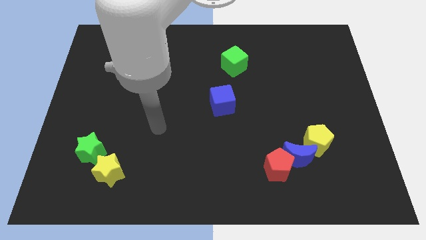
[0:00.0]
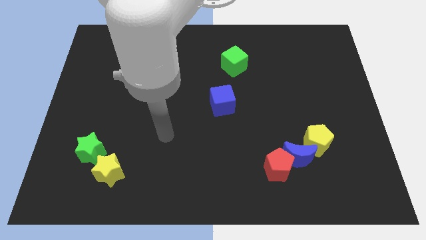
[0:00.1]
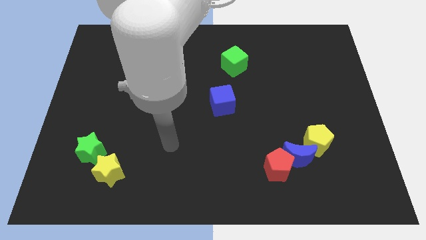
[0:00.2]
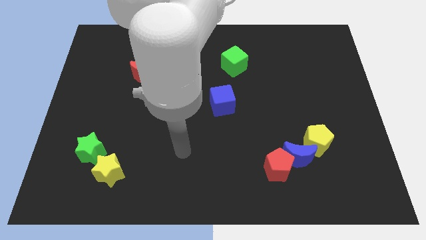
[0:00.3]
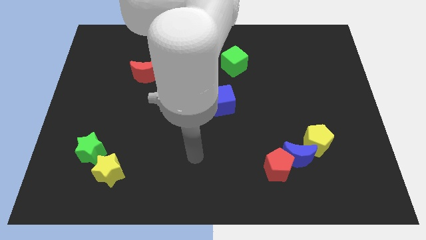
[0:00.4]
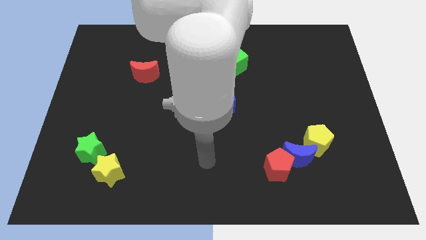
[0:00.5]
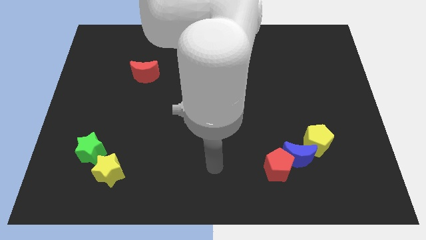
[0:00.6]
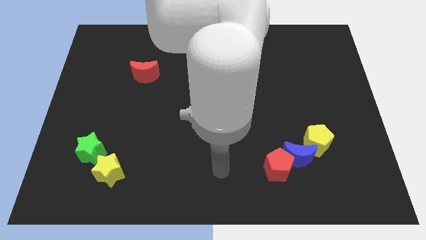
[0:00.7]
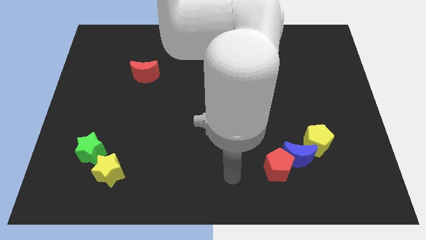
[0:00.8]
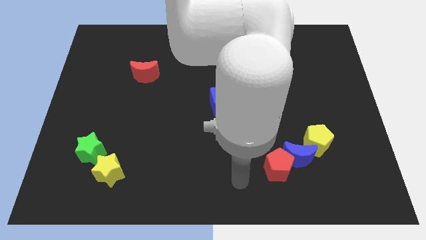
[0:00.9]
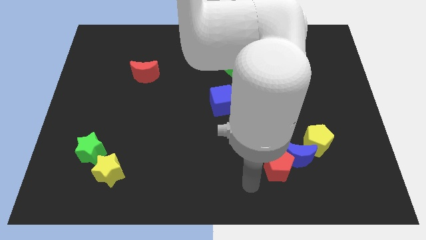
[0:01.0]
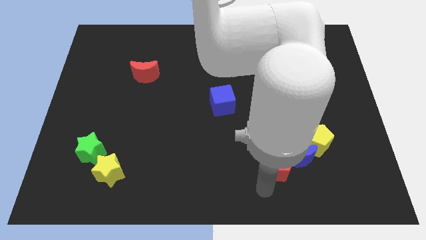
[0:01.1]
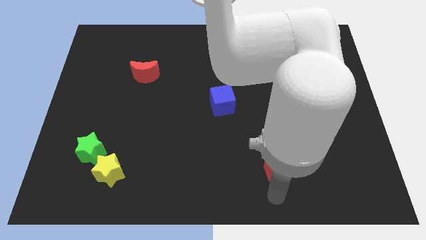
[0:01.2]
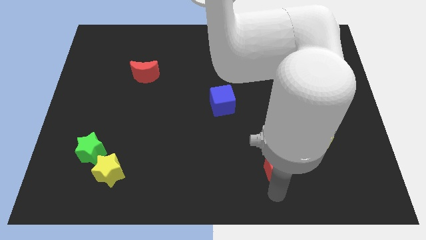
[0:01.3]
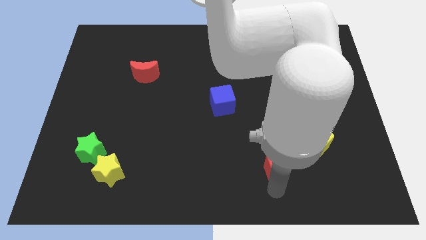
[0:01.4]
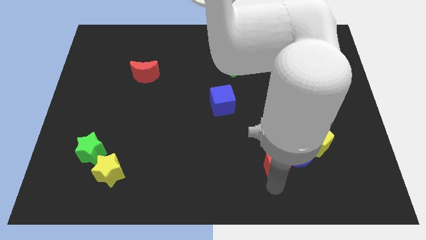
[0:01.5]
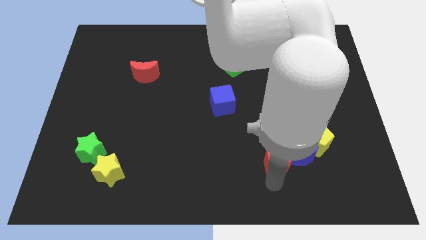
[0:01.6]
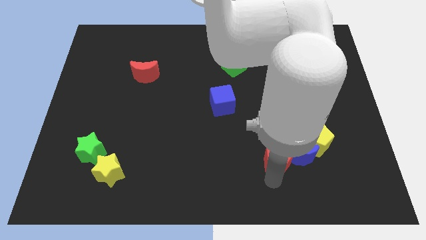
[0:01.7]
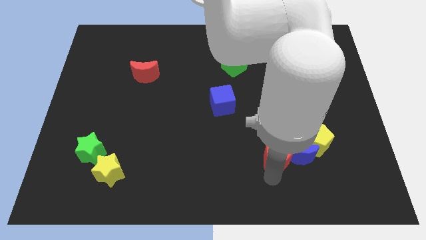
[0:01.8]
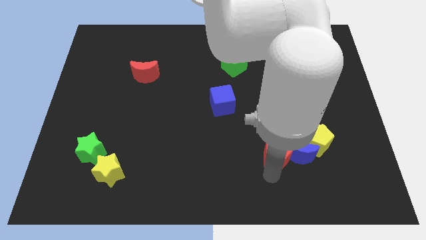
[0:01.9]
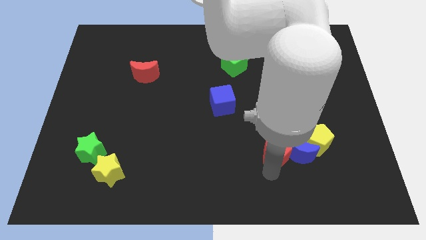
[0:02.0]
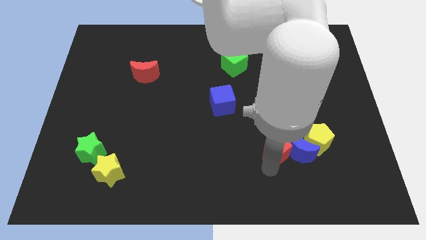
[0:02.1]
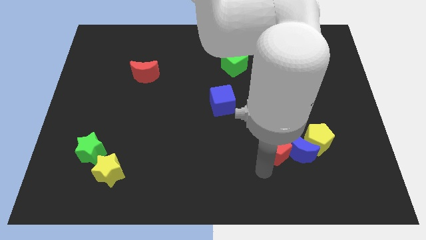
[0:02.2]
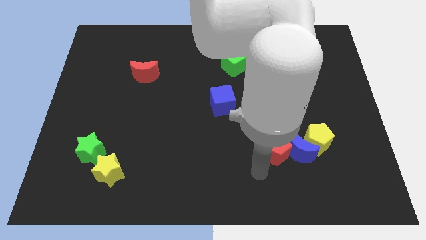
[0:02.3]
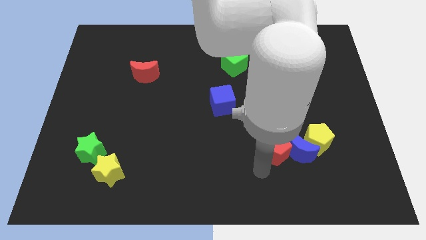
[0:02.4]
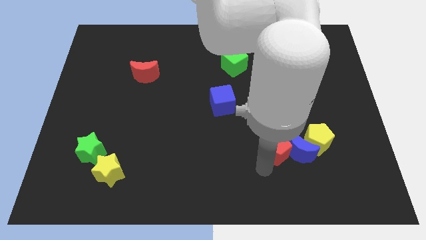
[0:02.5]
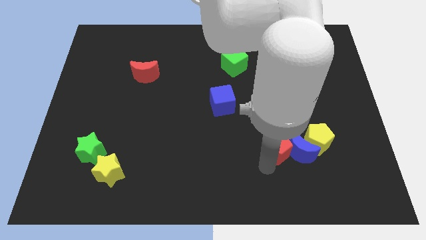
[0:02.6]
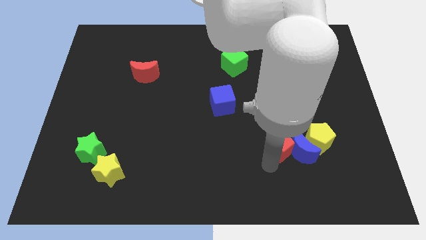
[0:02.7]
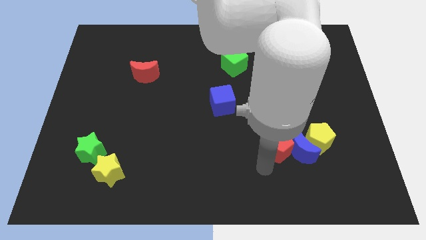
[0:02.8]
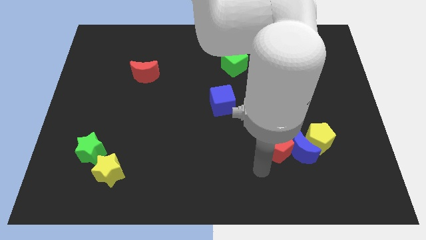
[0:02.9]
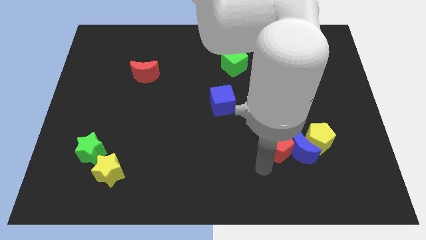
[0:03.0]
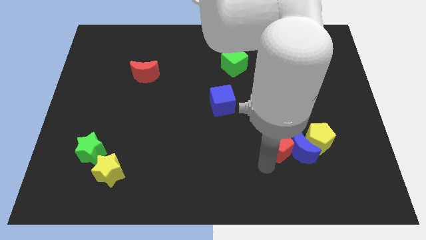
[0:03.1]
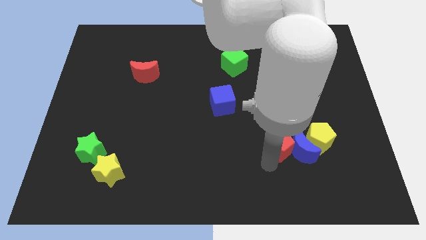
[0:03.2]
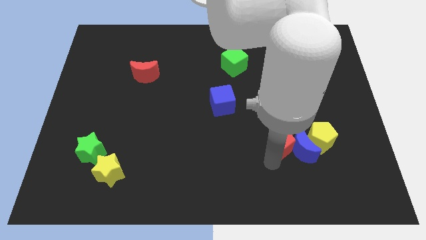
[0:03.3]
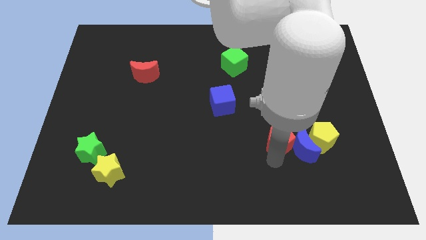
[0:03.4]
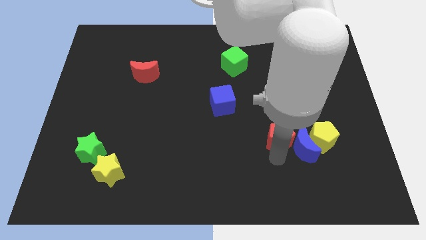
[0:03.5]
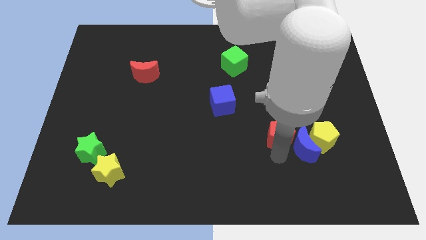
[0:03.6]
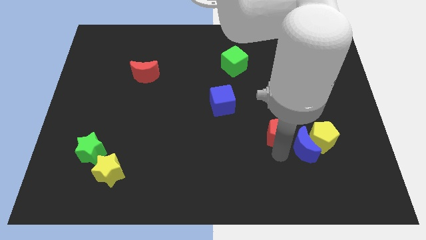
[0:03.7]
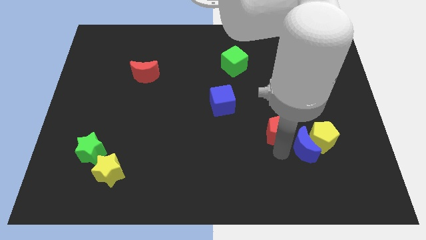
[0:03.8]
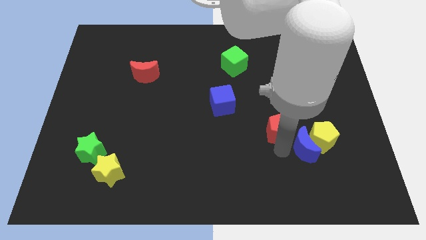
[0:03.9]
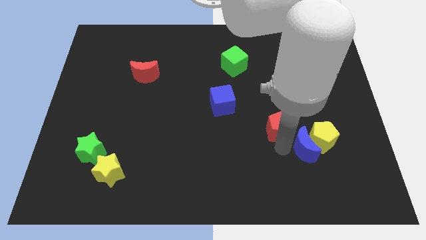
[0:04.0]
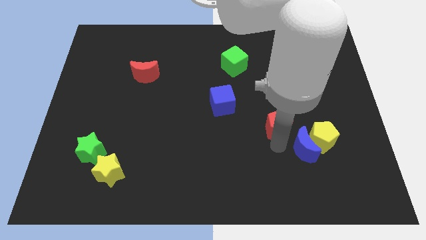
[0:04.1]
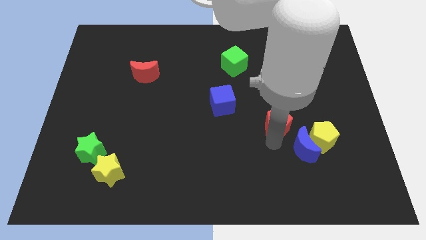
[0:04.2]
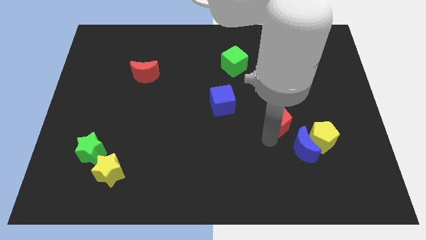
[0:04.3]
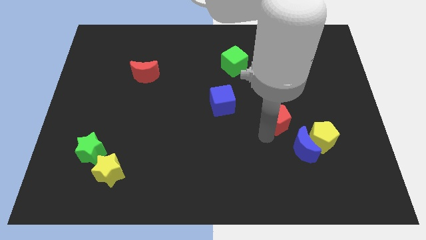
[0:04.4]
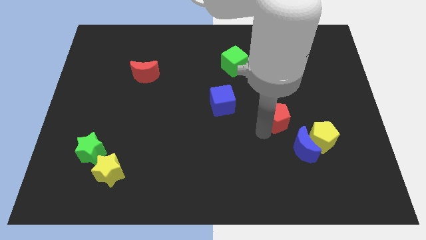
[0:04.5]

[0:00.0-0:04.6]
move the red pentagon a little bit up and then to the right

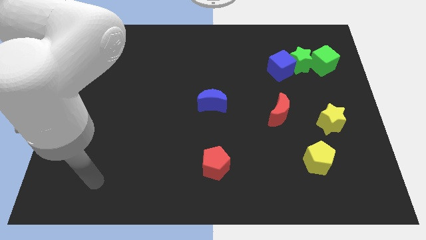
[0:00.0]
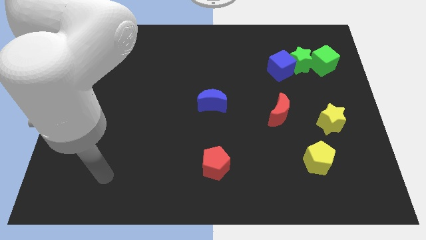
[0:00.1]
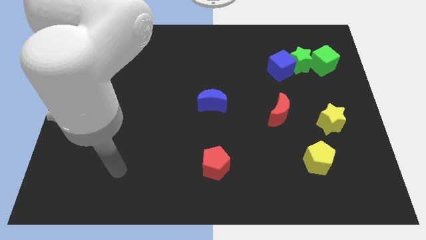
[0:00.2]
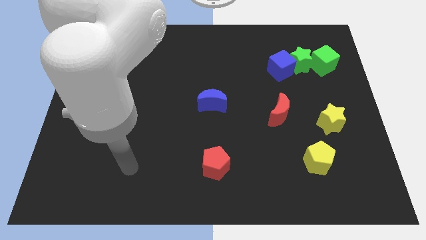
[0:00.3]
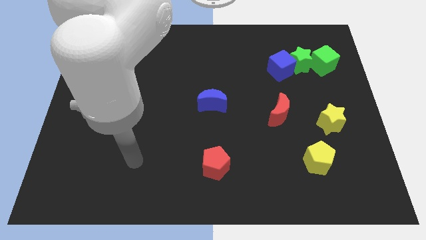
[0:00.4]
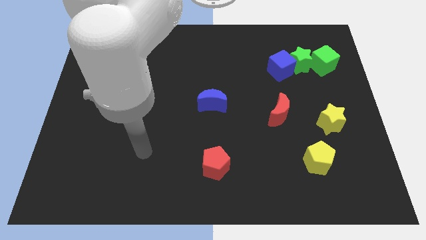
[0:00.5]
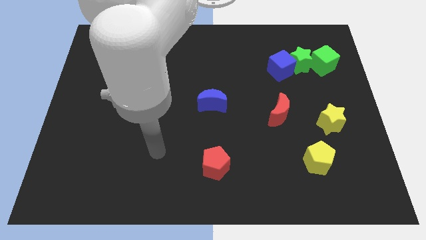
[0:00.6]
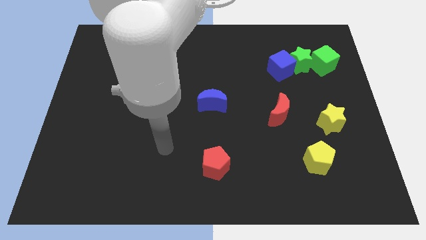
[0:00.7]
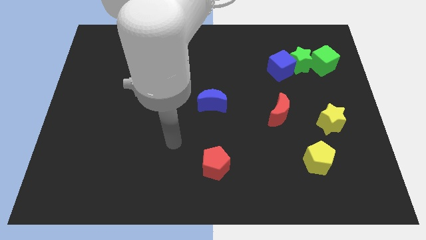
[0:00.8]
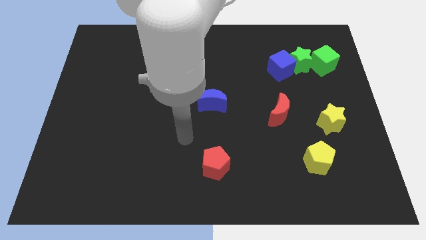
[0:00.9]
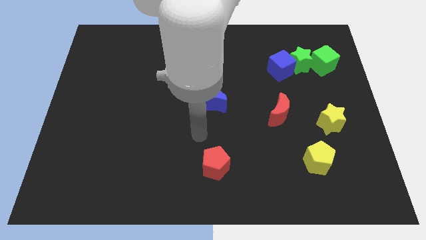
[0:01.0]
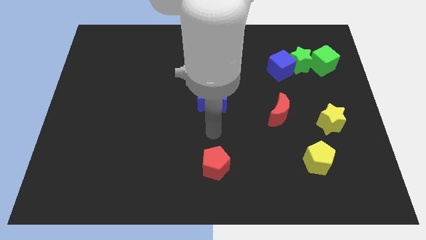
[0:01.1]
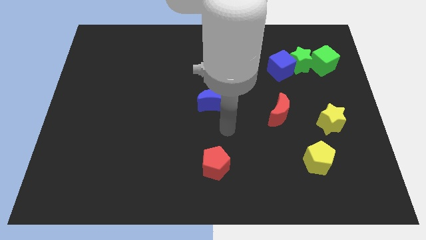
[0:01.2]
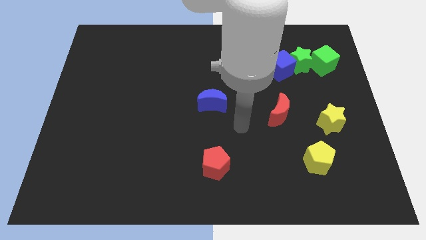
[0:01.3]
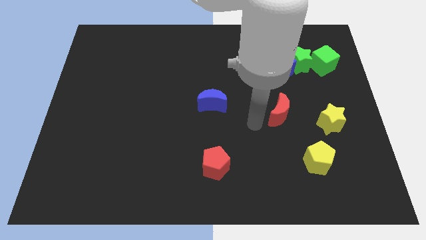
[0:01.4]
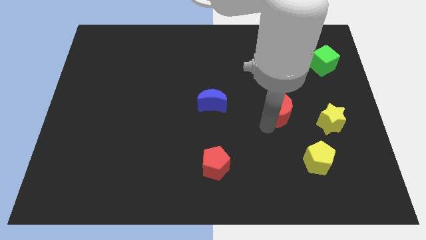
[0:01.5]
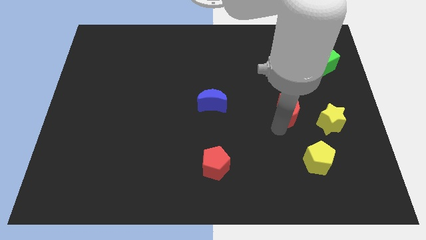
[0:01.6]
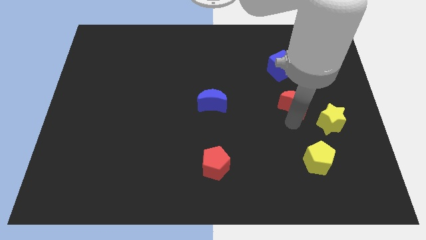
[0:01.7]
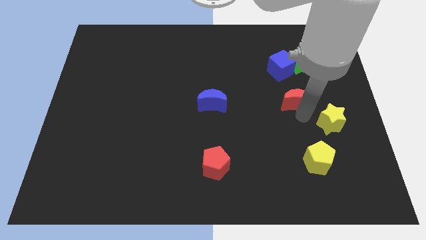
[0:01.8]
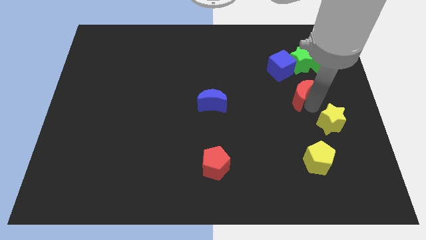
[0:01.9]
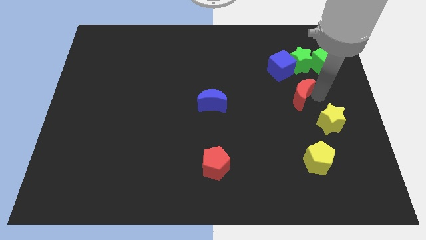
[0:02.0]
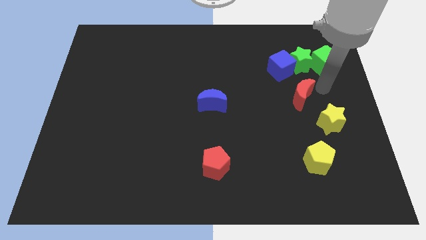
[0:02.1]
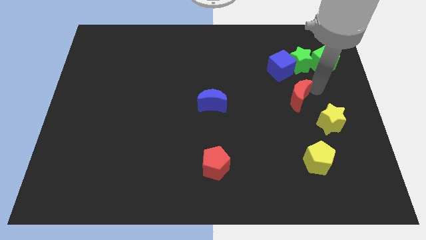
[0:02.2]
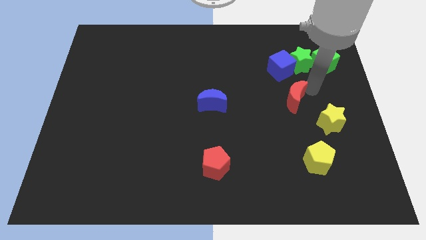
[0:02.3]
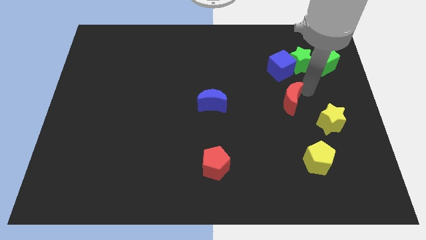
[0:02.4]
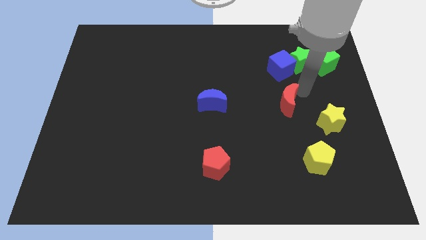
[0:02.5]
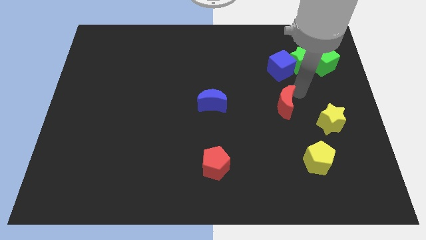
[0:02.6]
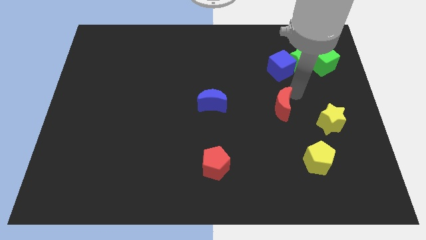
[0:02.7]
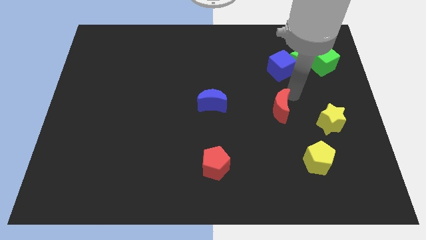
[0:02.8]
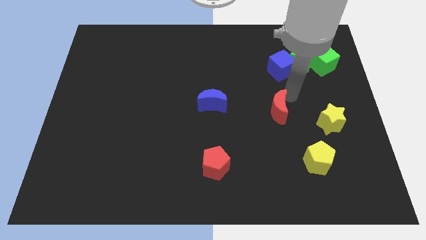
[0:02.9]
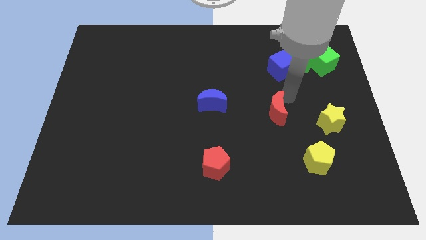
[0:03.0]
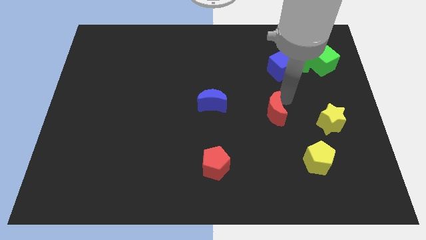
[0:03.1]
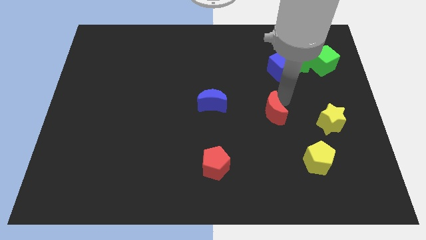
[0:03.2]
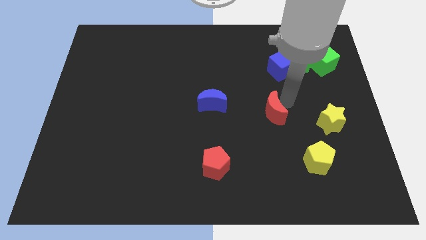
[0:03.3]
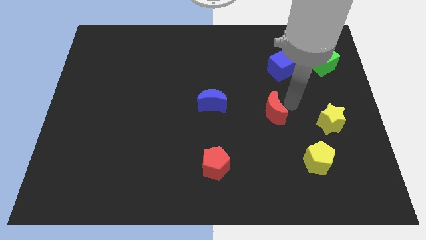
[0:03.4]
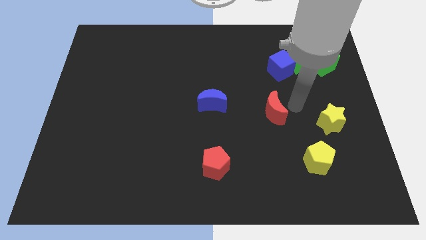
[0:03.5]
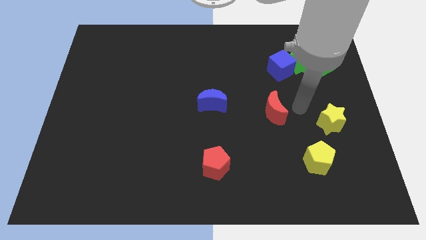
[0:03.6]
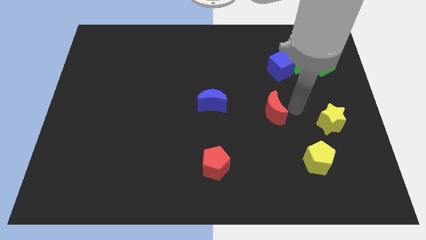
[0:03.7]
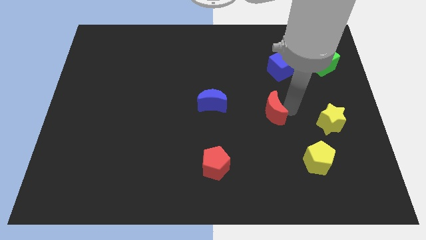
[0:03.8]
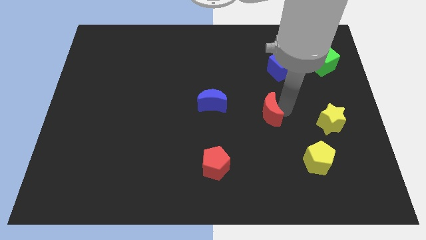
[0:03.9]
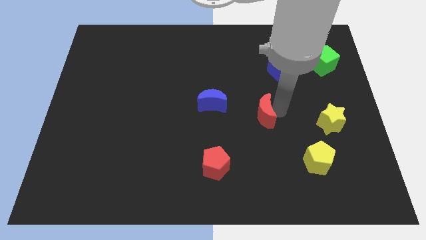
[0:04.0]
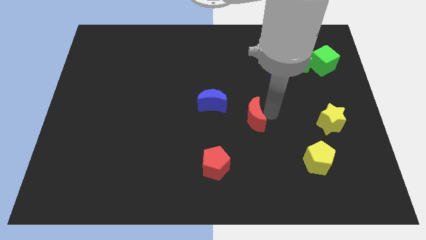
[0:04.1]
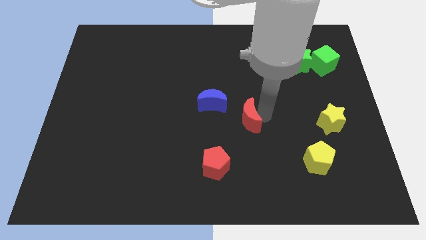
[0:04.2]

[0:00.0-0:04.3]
push the red moon slightly left
